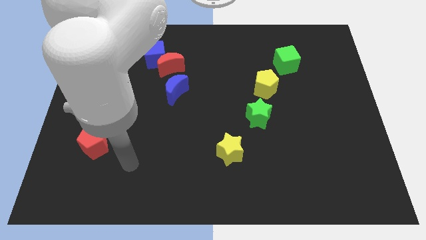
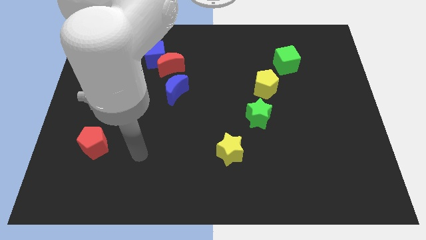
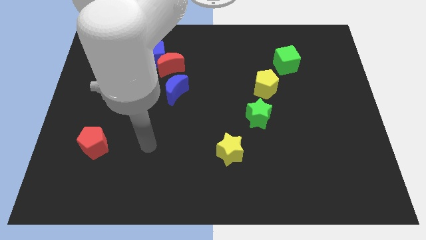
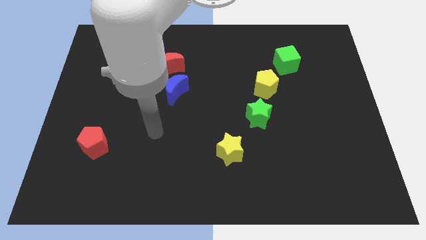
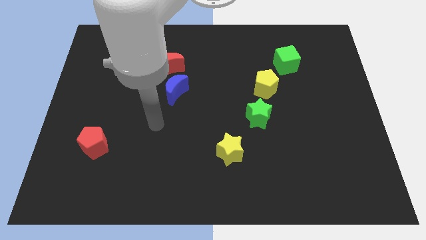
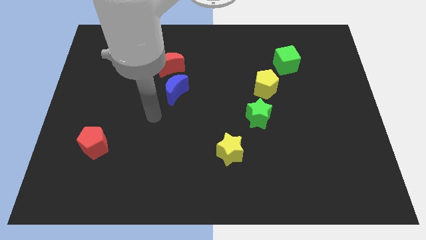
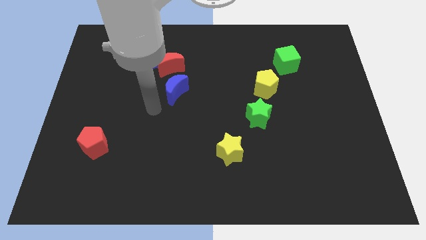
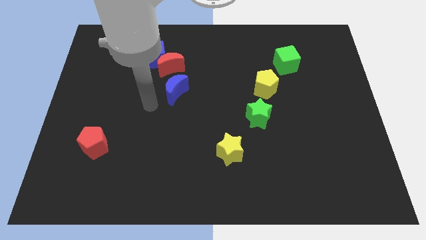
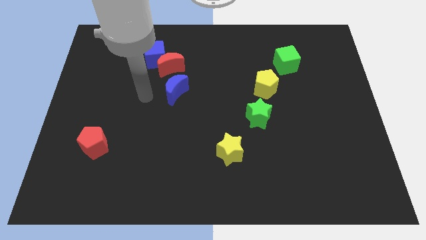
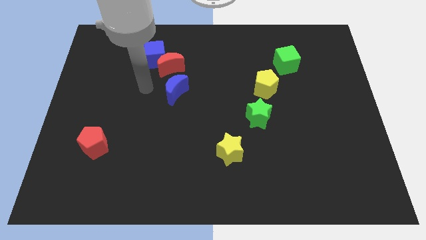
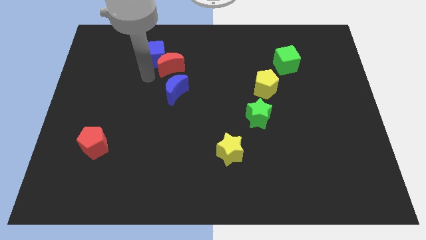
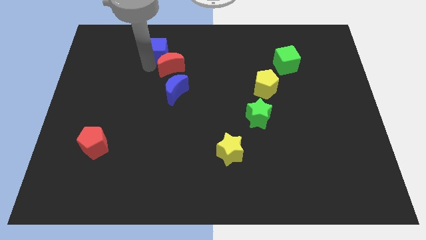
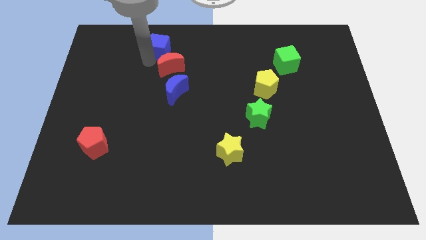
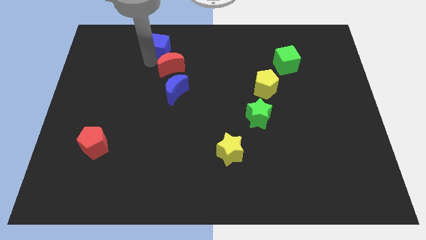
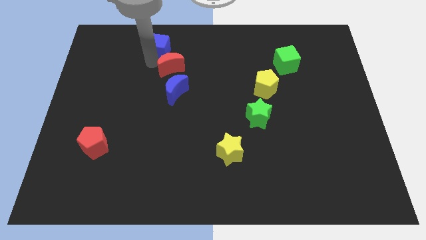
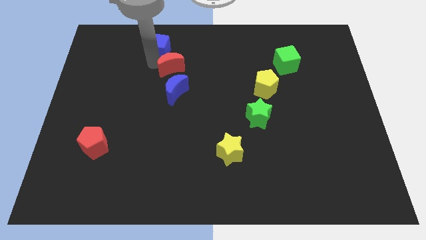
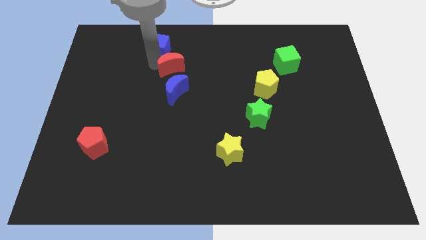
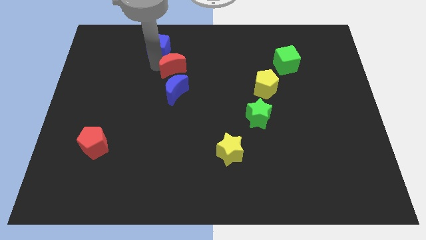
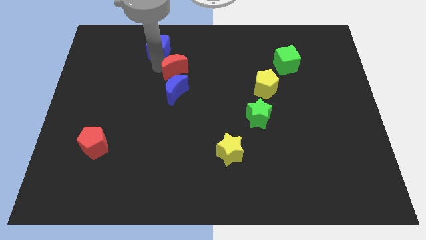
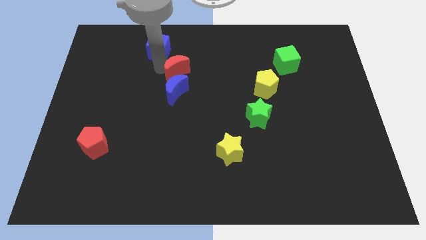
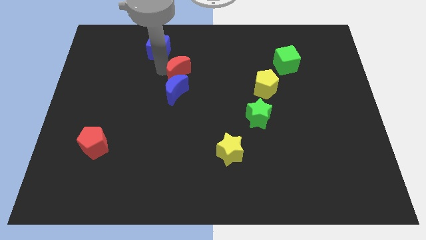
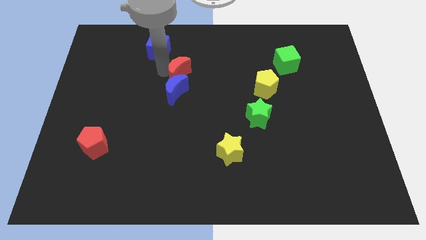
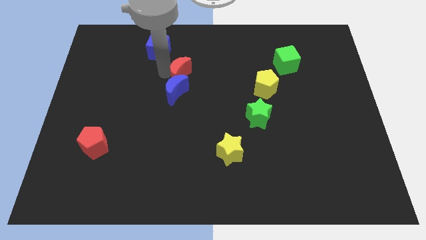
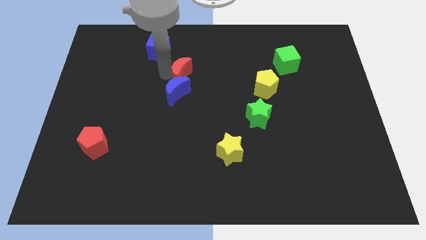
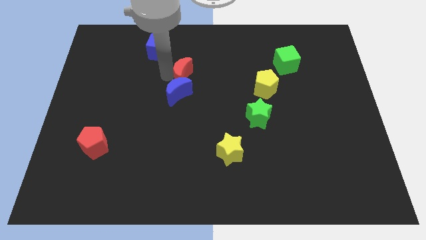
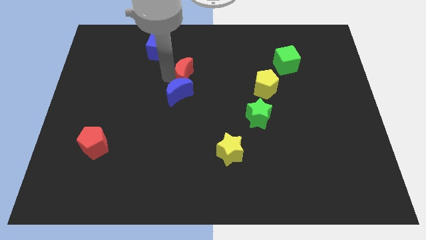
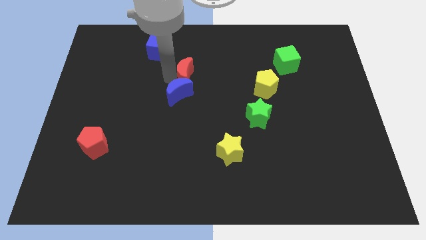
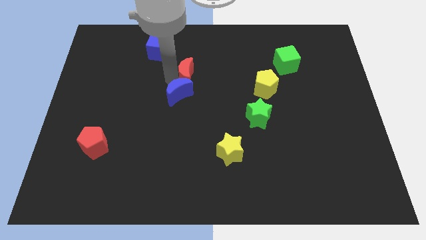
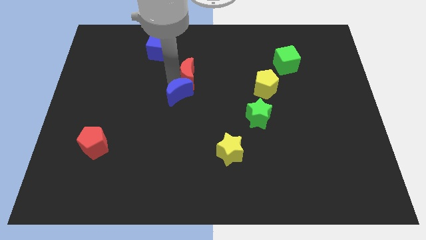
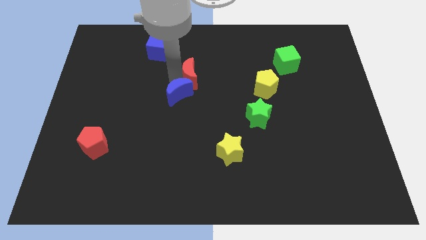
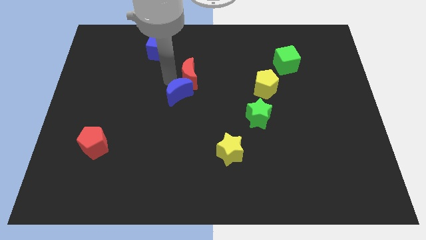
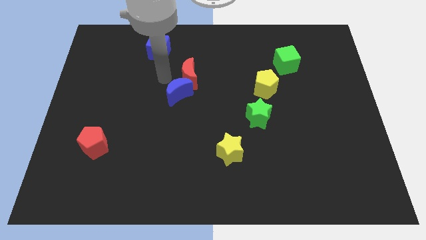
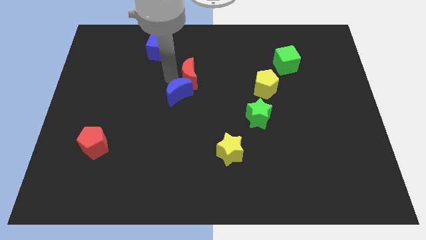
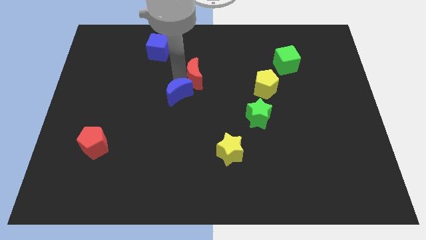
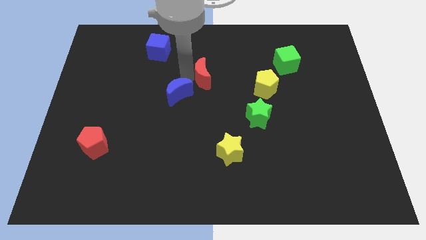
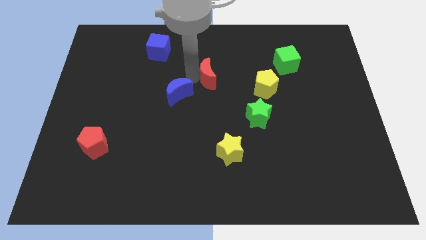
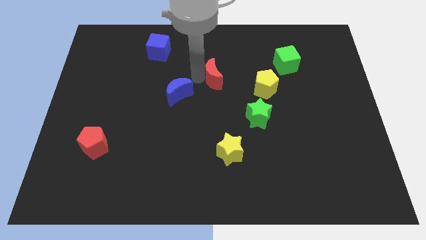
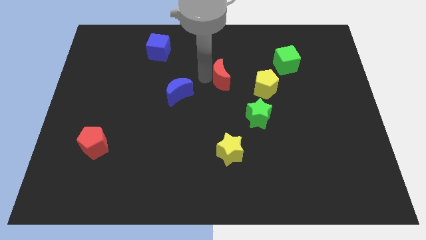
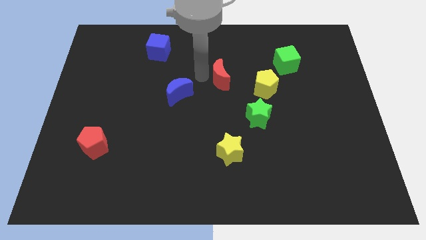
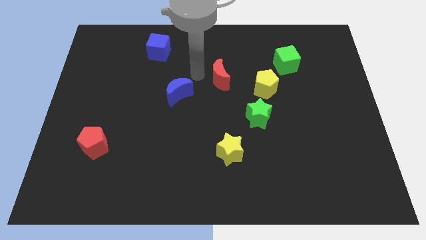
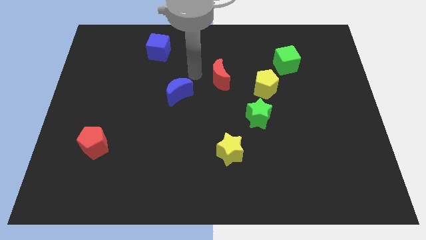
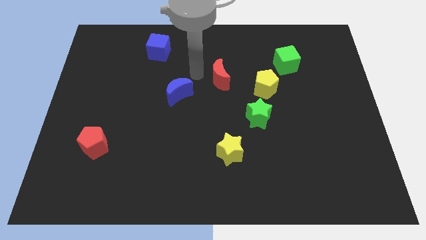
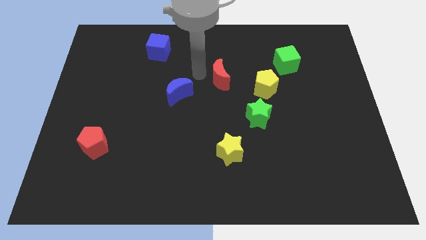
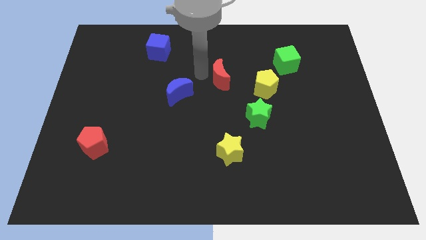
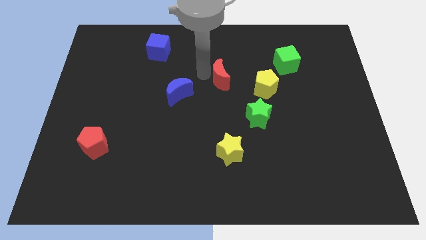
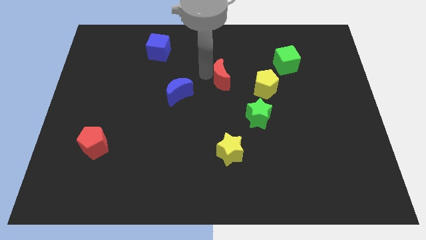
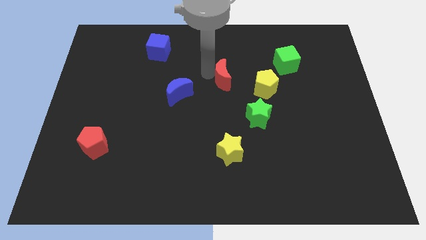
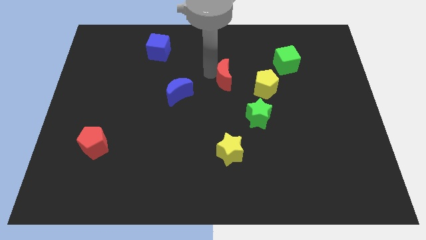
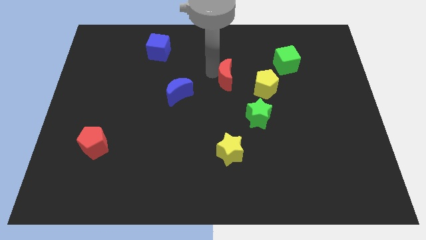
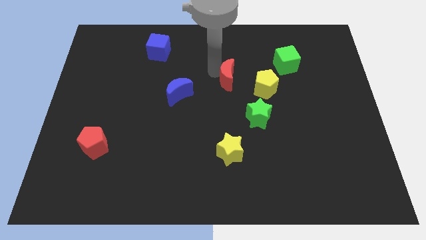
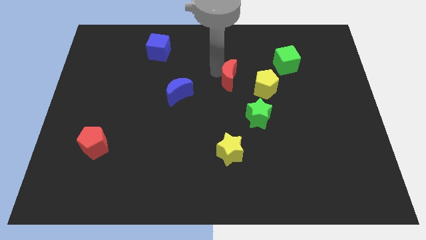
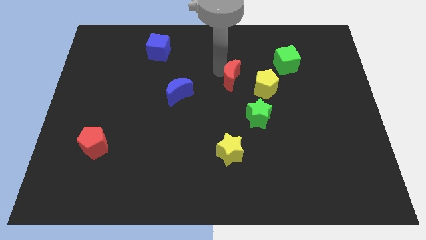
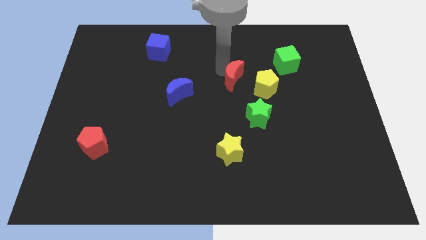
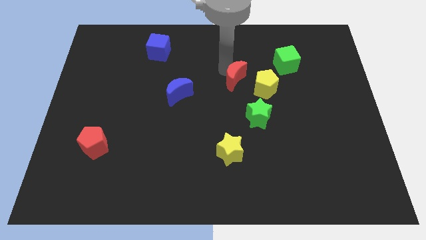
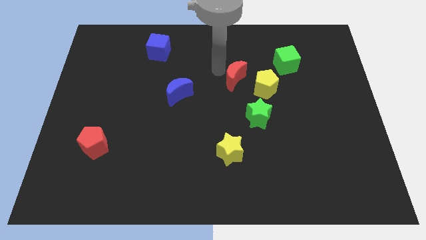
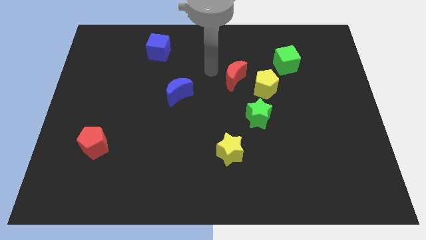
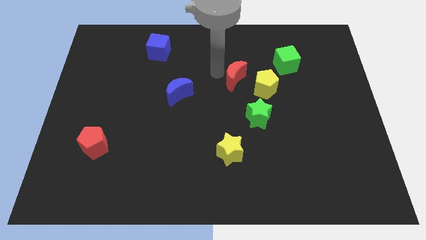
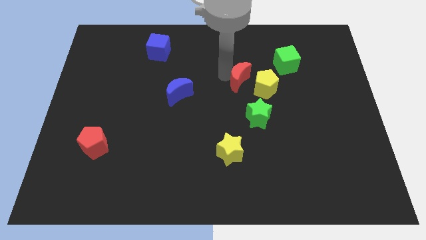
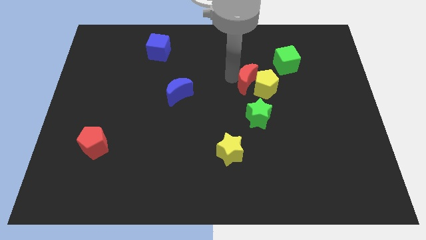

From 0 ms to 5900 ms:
move the red moon to the yellow pentagon

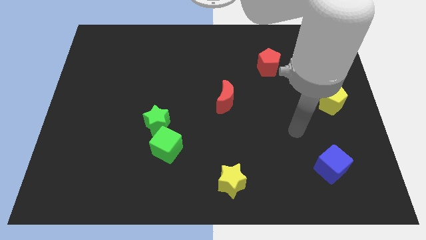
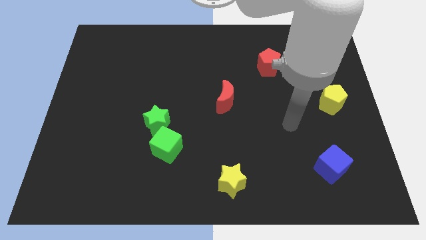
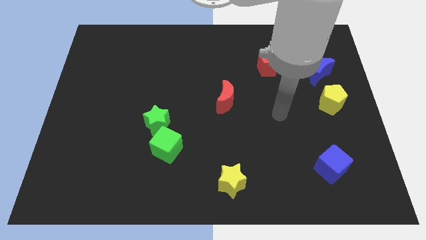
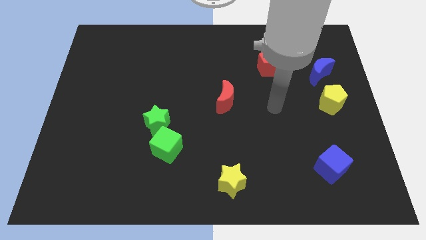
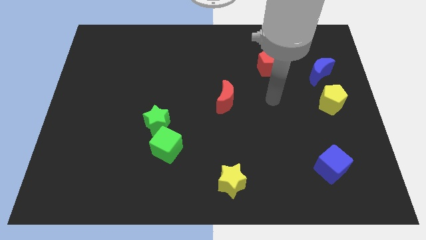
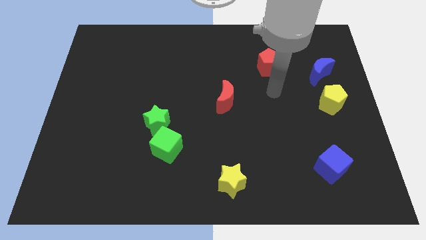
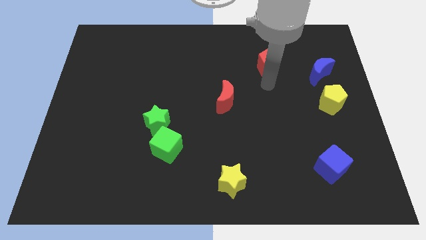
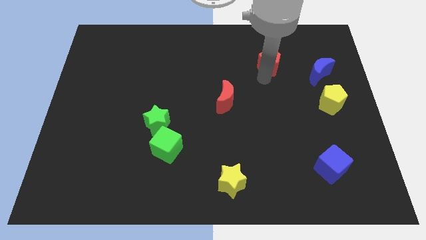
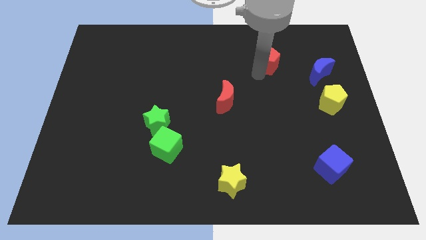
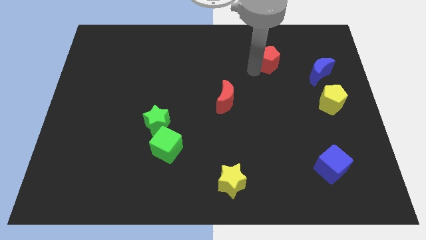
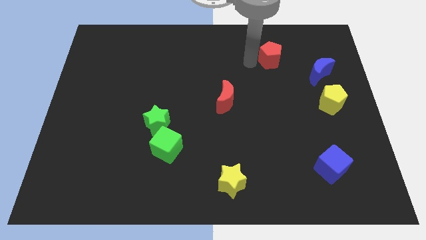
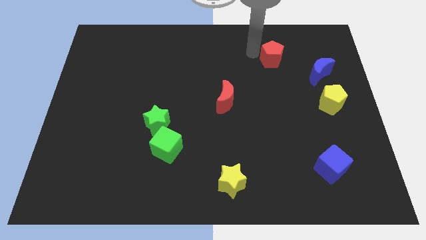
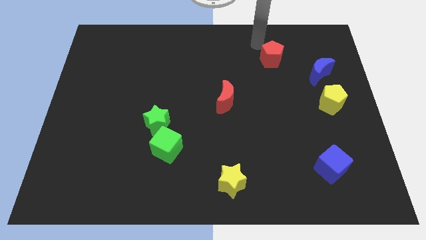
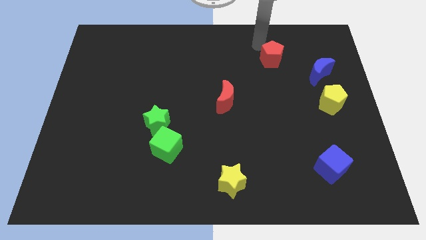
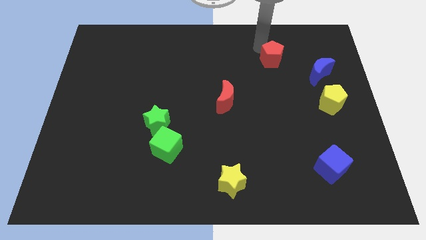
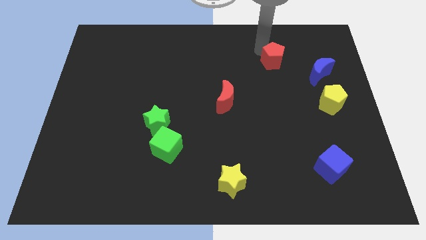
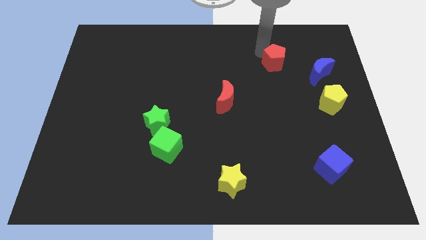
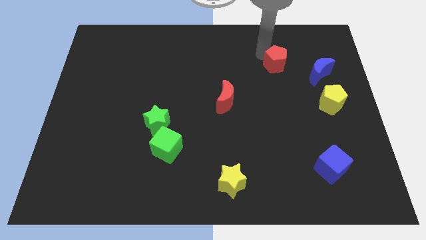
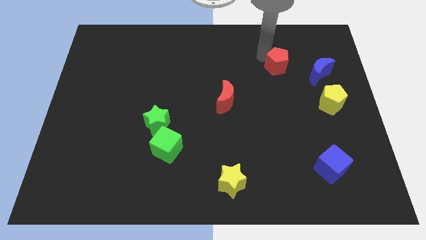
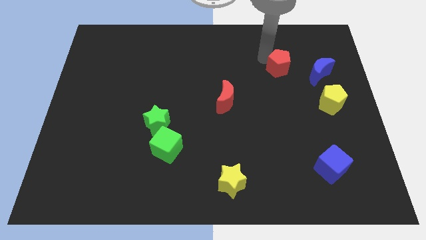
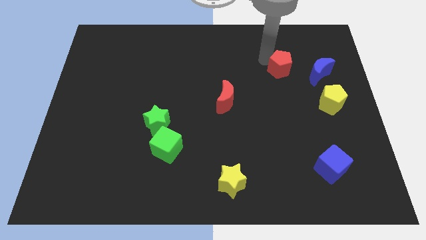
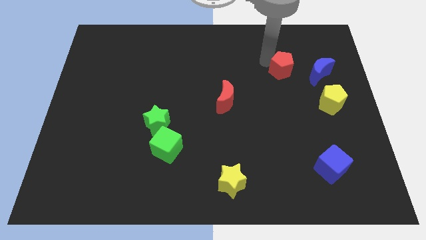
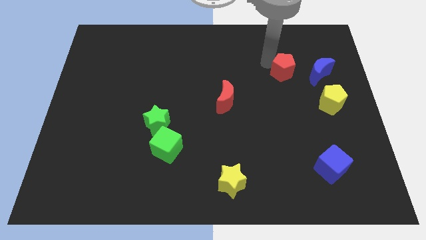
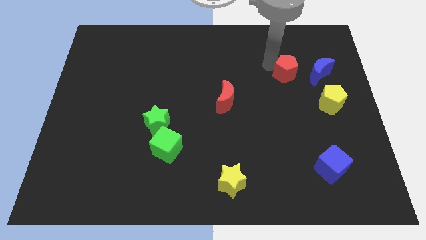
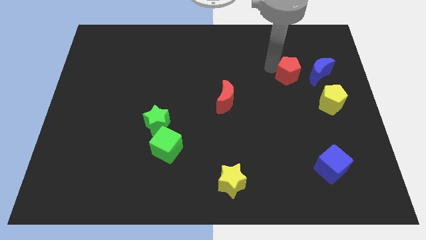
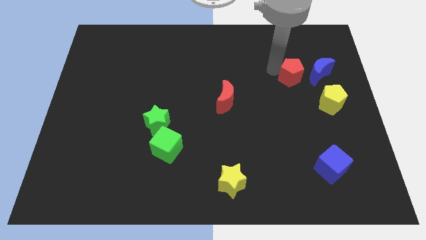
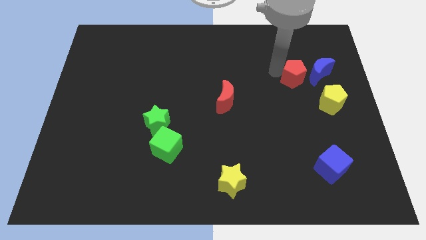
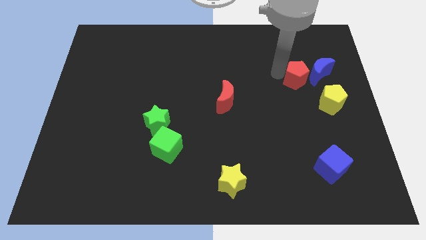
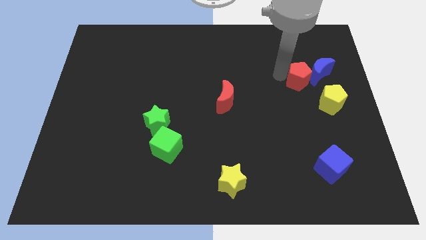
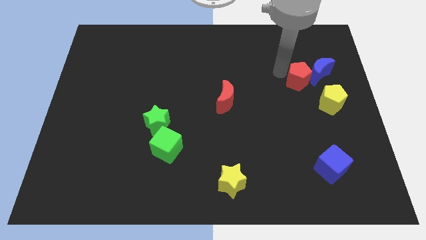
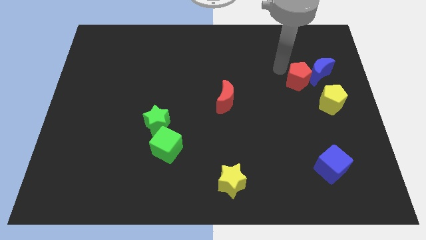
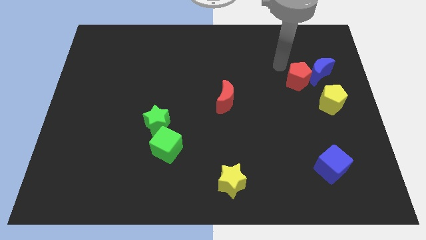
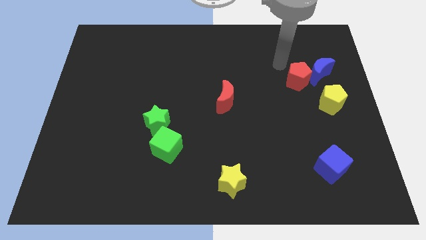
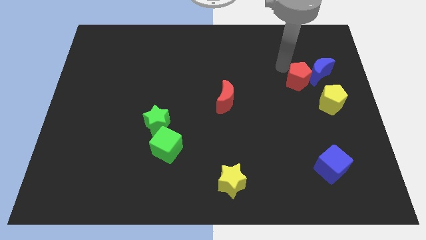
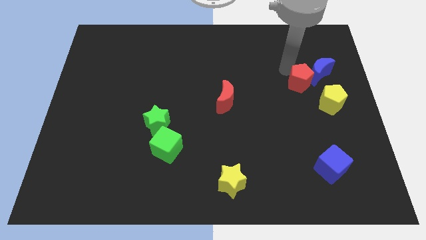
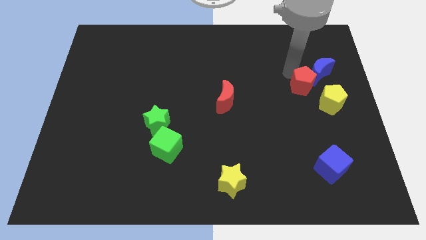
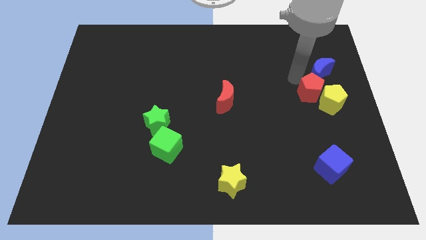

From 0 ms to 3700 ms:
put the red pentagon to the yellow pentagon
